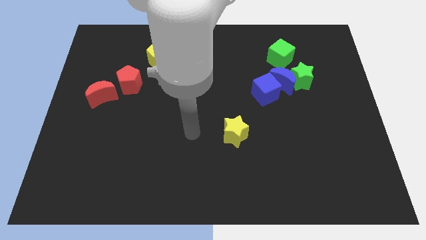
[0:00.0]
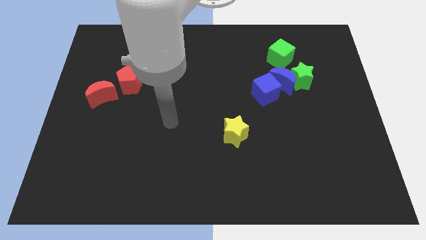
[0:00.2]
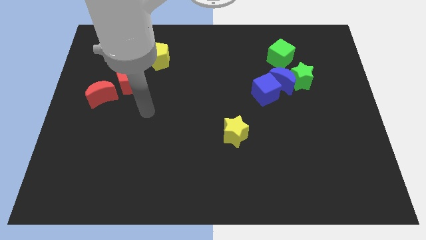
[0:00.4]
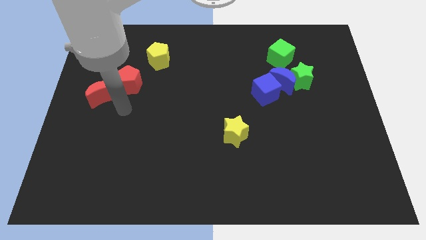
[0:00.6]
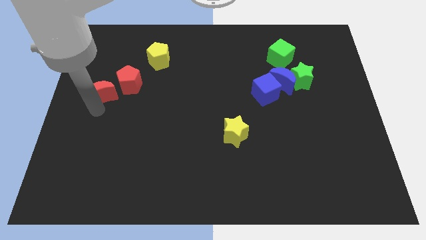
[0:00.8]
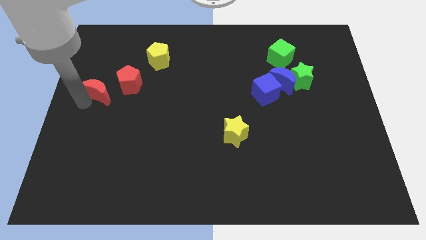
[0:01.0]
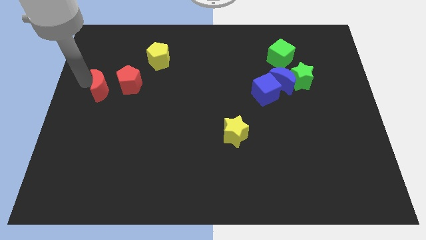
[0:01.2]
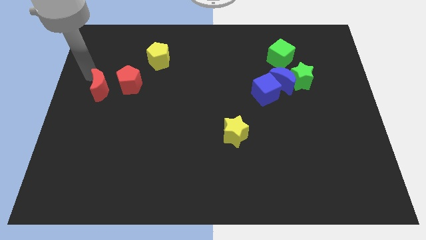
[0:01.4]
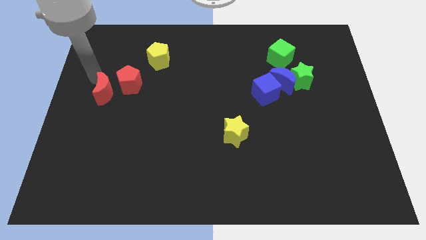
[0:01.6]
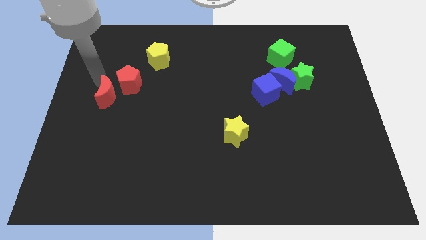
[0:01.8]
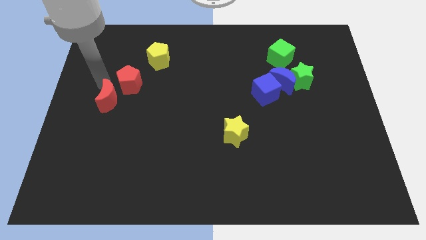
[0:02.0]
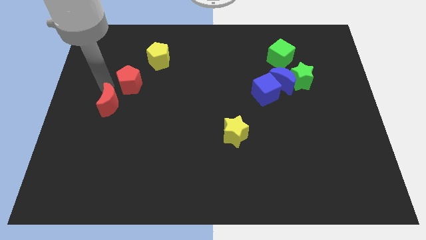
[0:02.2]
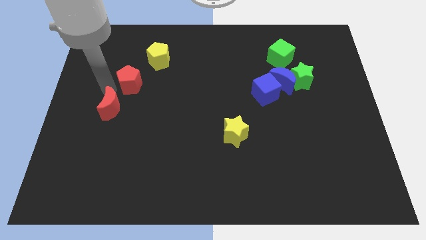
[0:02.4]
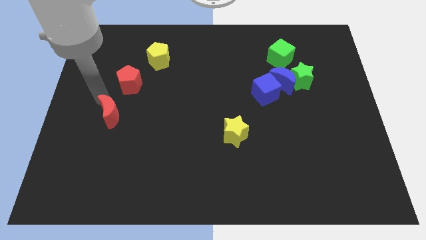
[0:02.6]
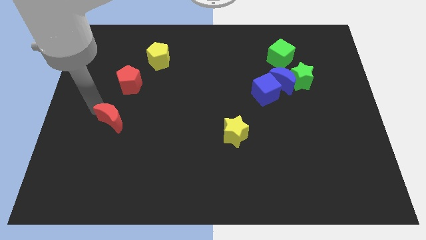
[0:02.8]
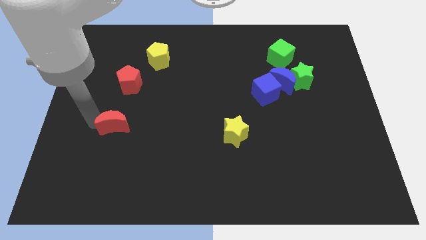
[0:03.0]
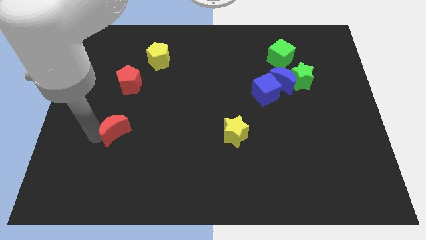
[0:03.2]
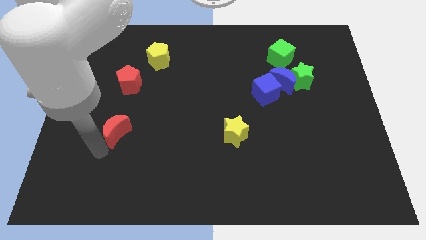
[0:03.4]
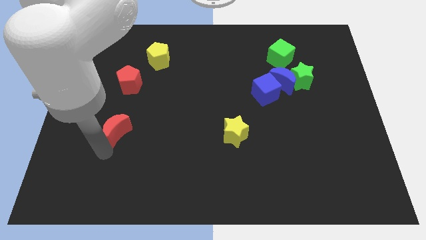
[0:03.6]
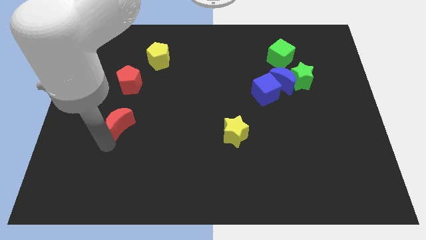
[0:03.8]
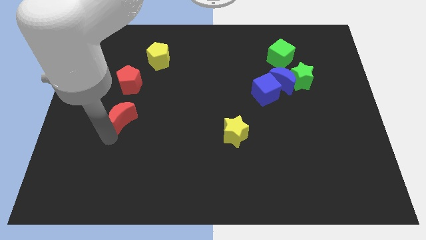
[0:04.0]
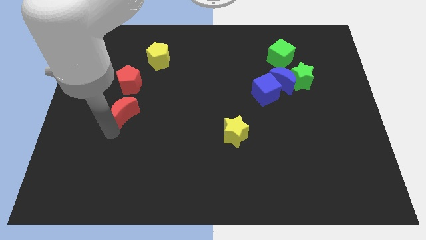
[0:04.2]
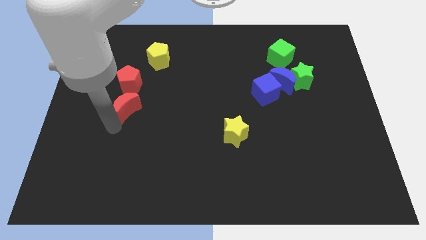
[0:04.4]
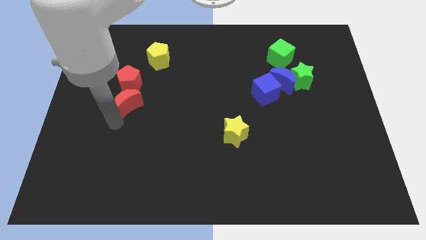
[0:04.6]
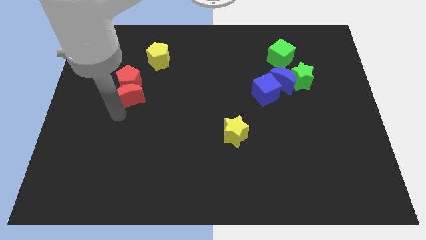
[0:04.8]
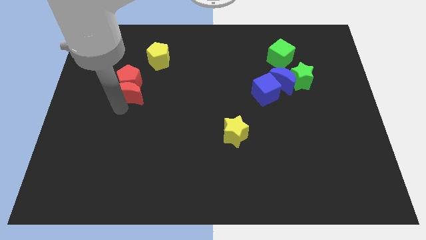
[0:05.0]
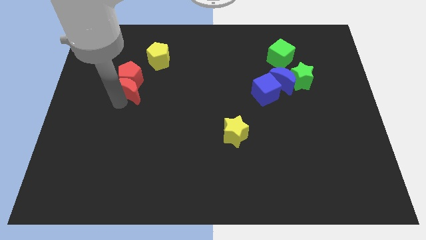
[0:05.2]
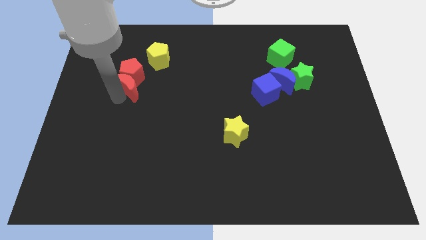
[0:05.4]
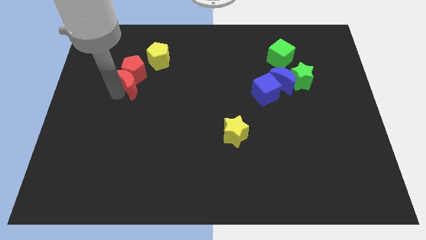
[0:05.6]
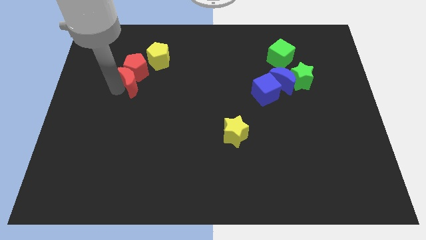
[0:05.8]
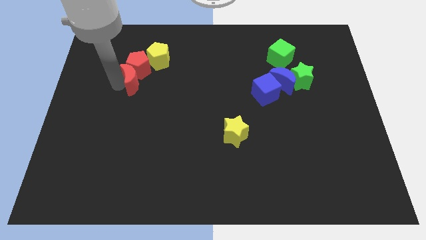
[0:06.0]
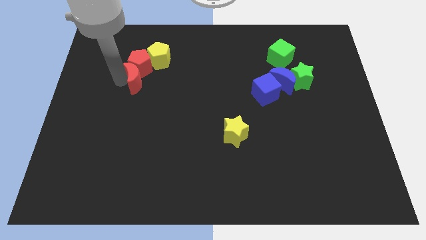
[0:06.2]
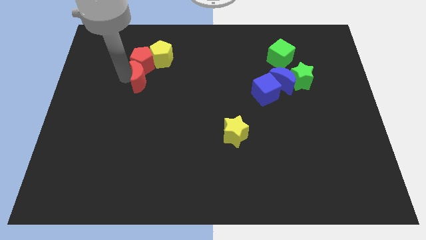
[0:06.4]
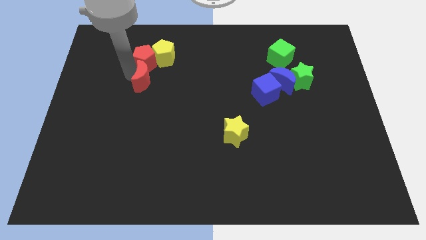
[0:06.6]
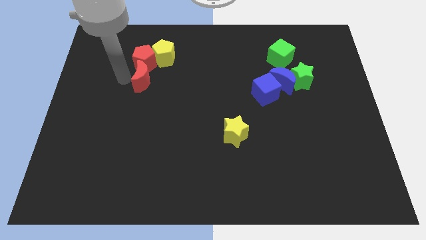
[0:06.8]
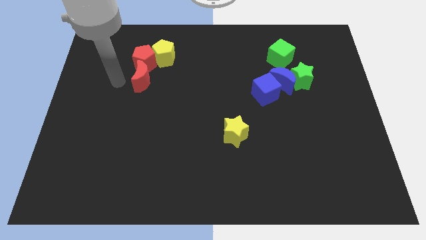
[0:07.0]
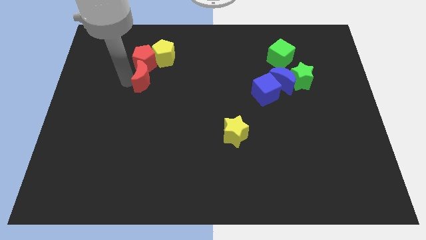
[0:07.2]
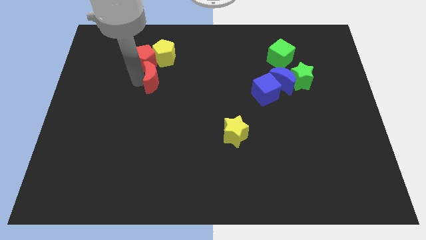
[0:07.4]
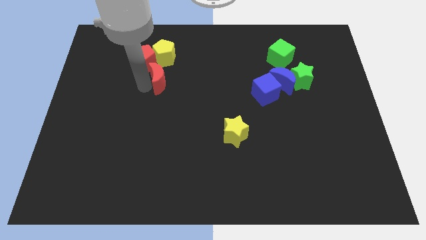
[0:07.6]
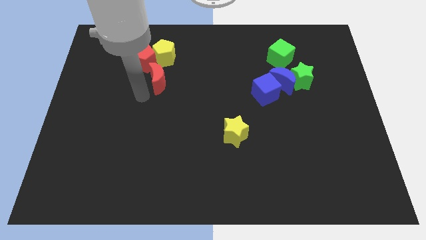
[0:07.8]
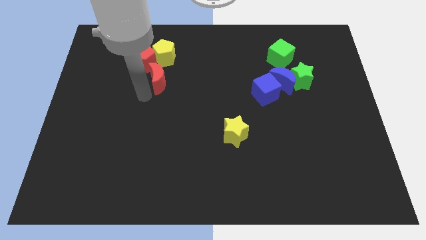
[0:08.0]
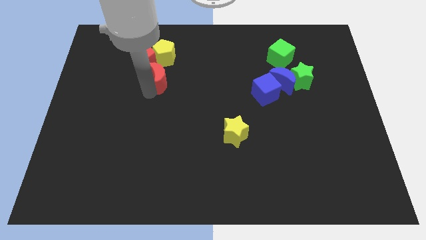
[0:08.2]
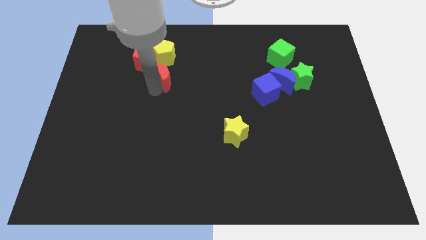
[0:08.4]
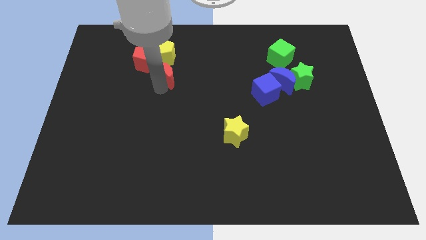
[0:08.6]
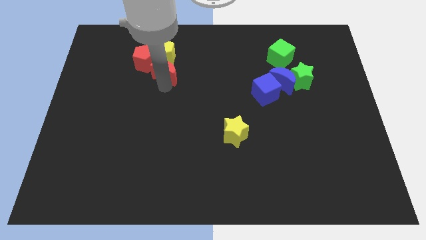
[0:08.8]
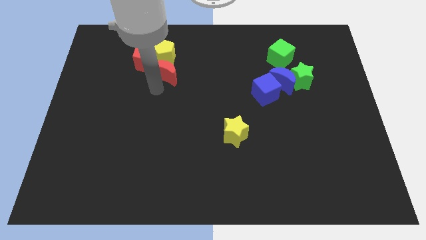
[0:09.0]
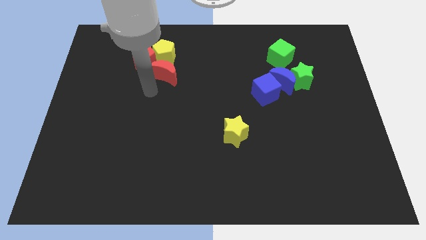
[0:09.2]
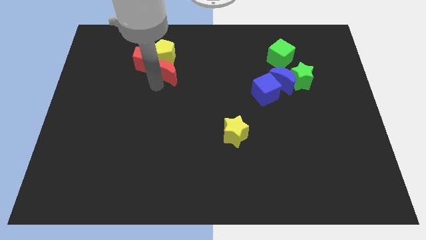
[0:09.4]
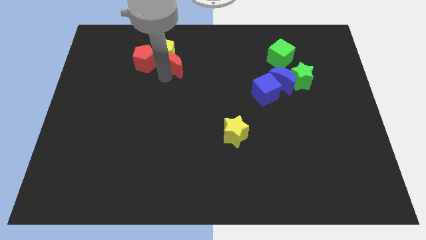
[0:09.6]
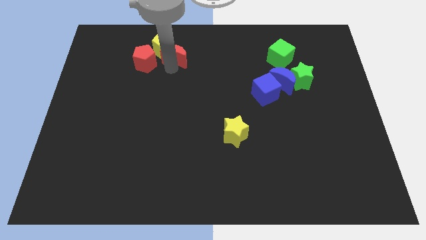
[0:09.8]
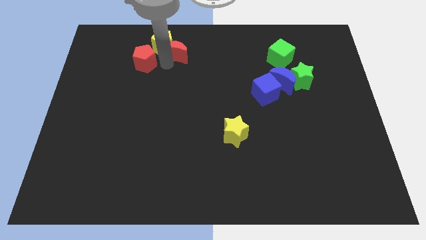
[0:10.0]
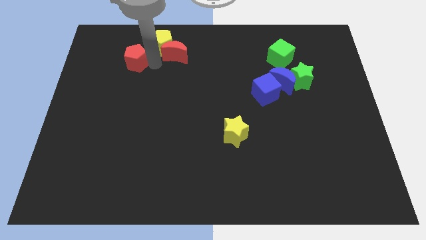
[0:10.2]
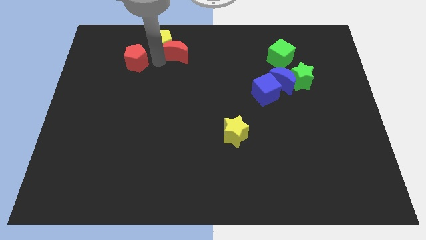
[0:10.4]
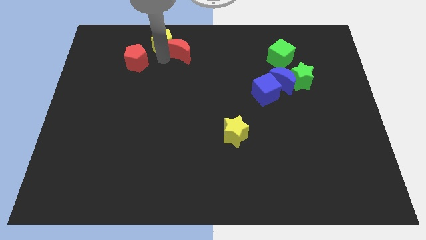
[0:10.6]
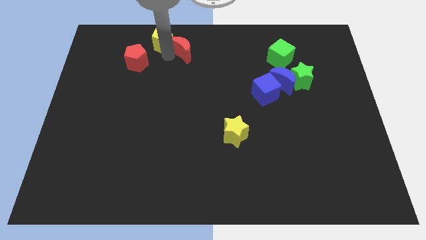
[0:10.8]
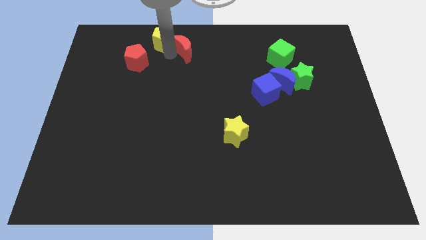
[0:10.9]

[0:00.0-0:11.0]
put the red moon to the top
